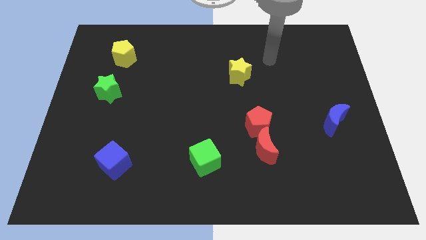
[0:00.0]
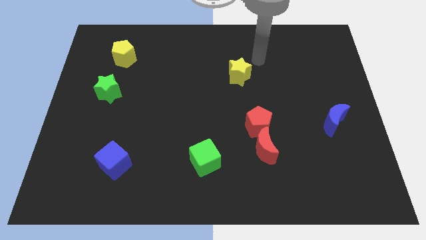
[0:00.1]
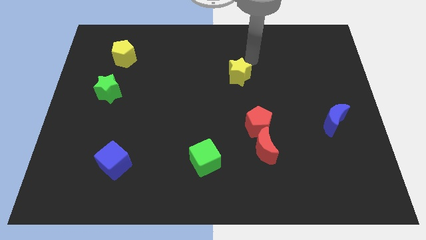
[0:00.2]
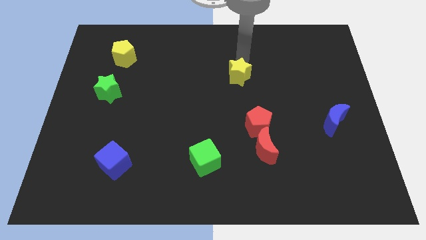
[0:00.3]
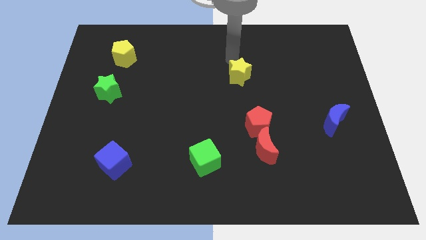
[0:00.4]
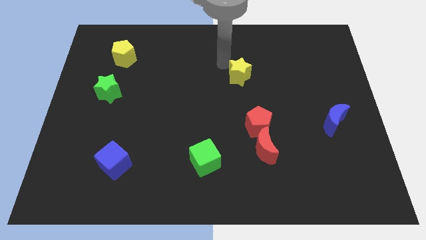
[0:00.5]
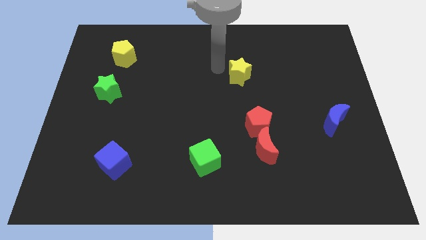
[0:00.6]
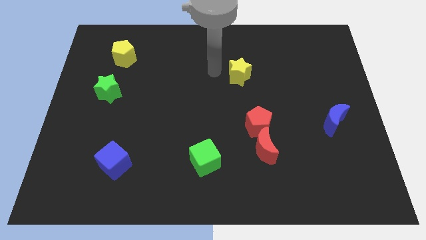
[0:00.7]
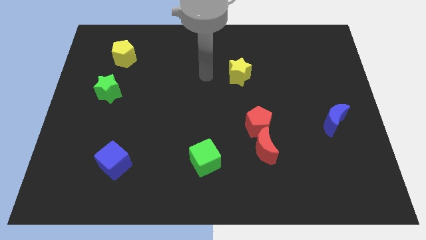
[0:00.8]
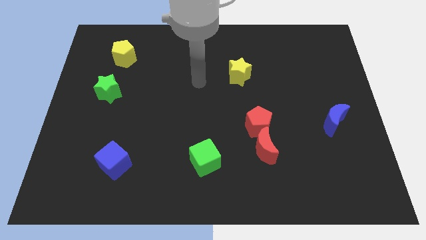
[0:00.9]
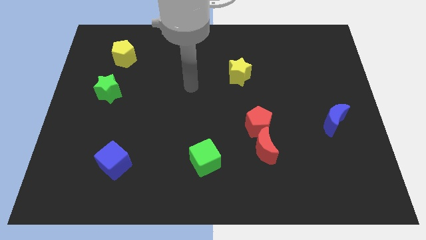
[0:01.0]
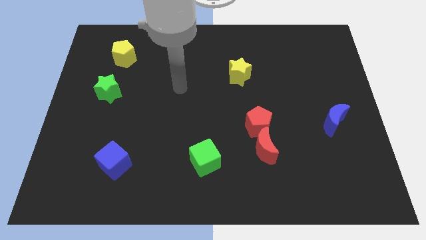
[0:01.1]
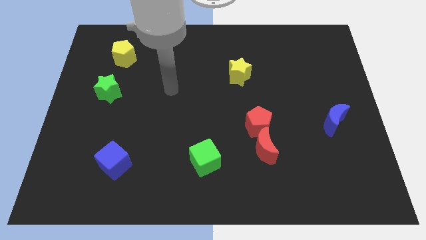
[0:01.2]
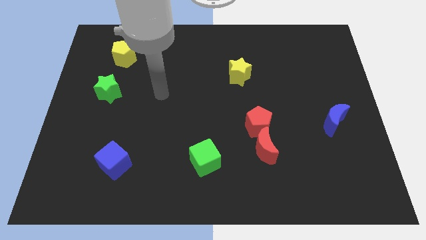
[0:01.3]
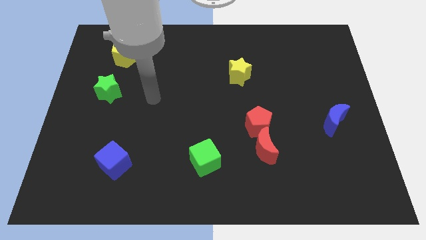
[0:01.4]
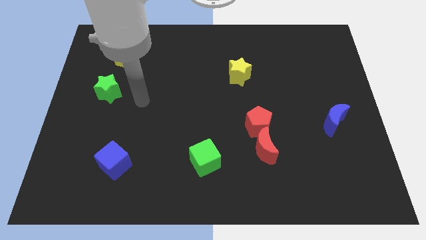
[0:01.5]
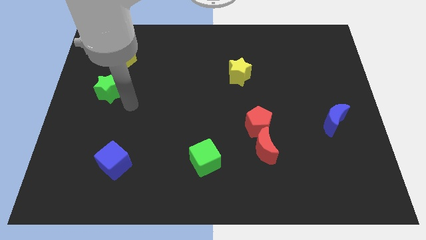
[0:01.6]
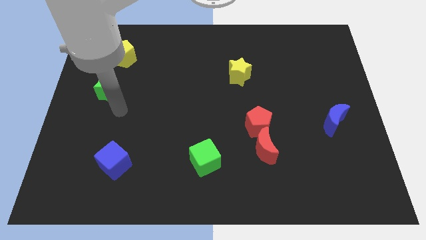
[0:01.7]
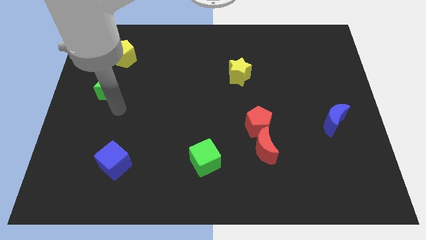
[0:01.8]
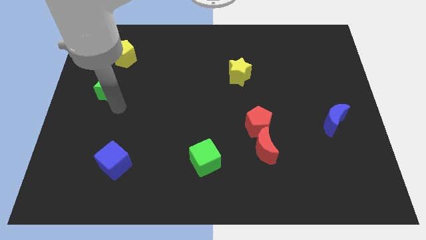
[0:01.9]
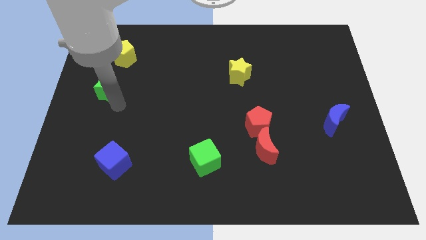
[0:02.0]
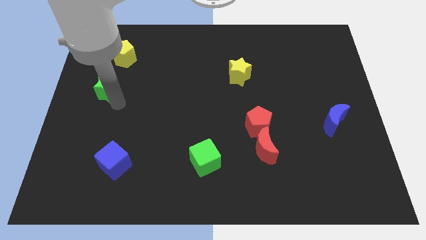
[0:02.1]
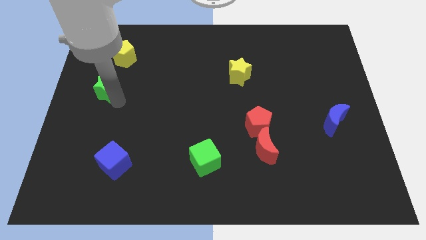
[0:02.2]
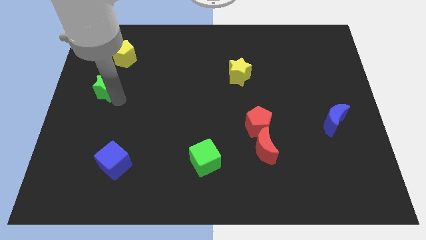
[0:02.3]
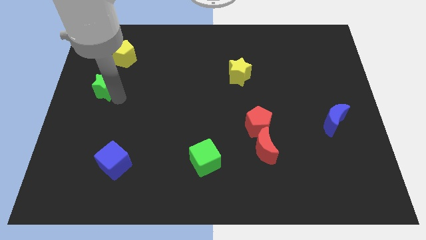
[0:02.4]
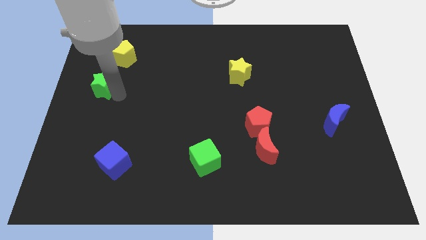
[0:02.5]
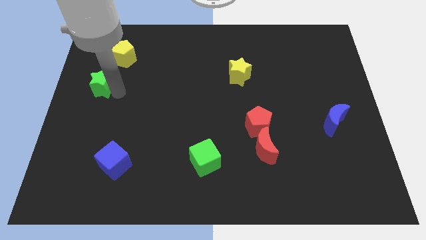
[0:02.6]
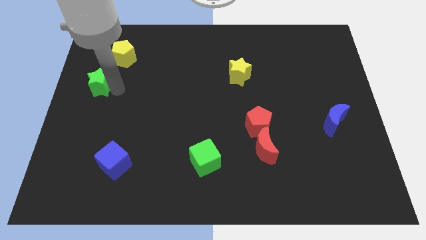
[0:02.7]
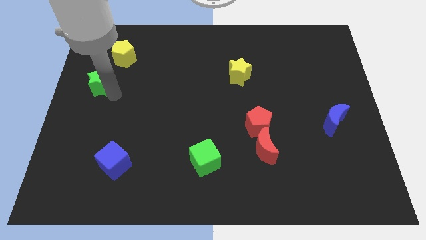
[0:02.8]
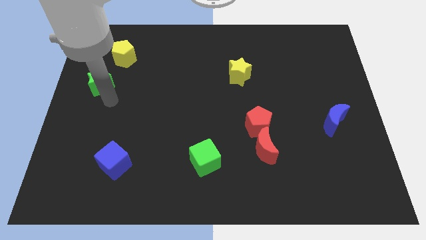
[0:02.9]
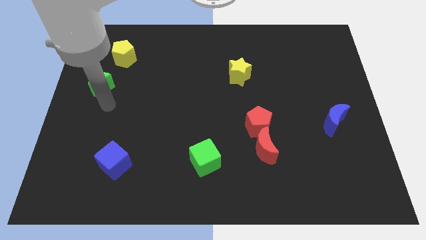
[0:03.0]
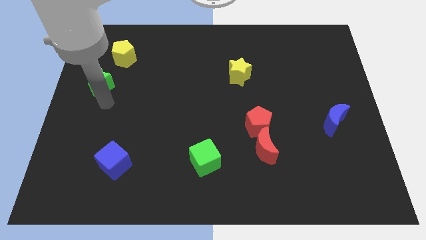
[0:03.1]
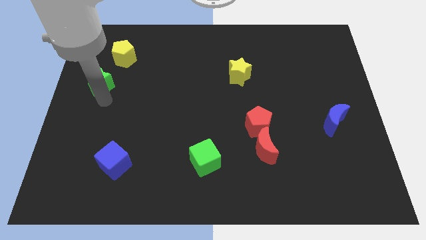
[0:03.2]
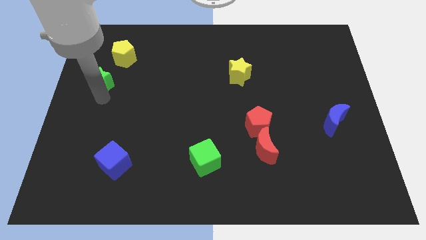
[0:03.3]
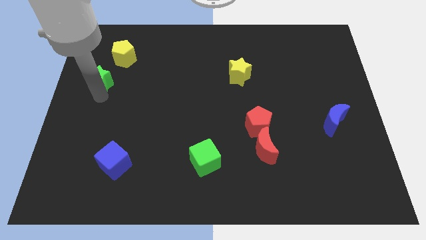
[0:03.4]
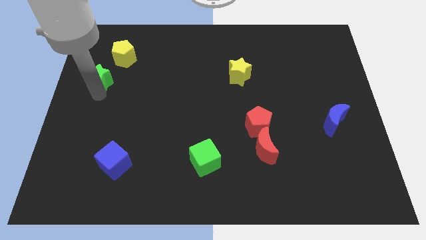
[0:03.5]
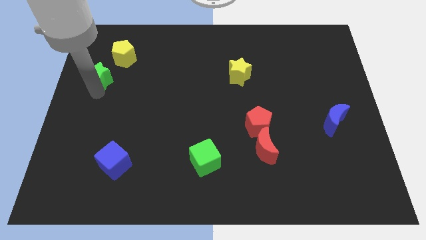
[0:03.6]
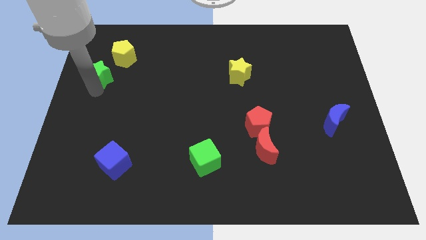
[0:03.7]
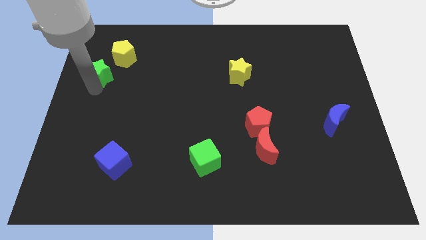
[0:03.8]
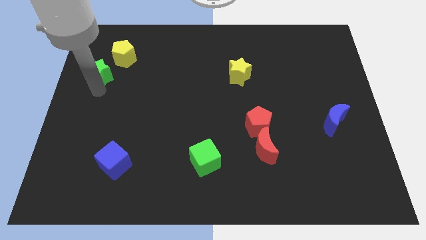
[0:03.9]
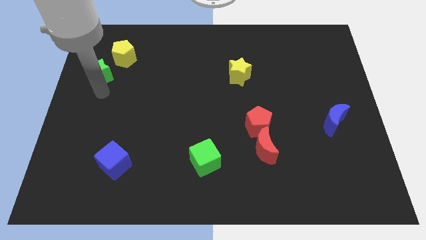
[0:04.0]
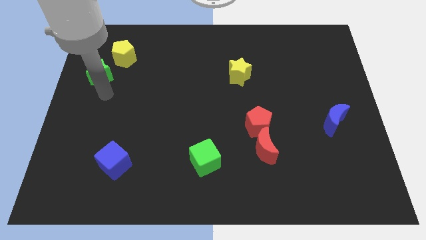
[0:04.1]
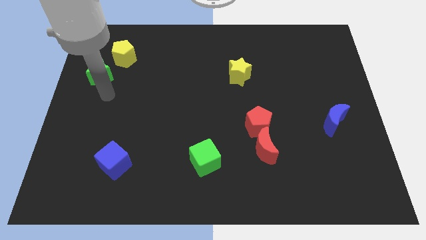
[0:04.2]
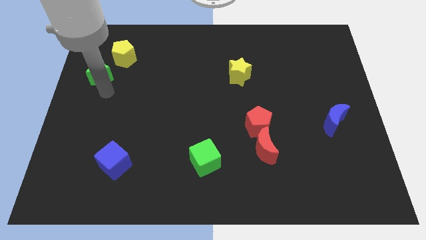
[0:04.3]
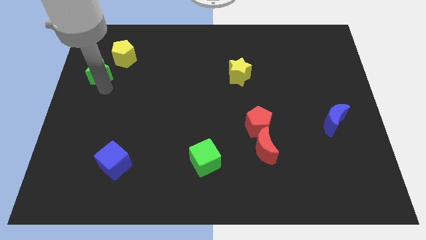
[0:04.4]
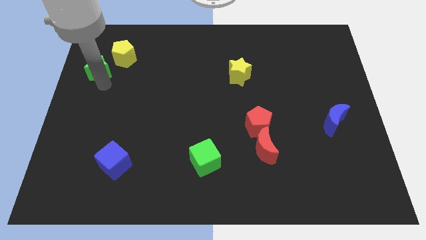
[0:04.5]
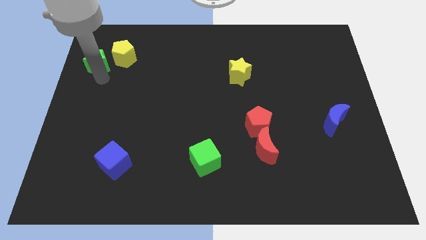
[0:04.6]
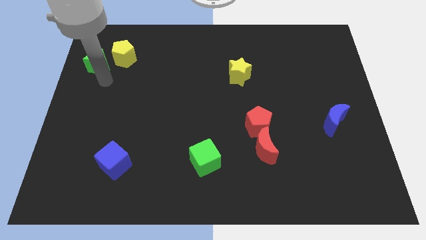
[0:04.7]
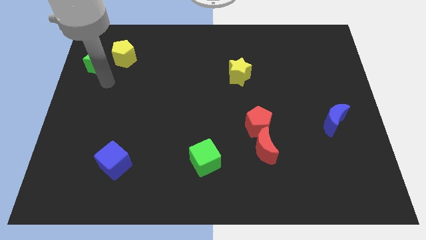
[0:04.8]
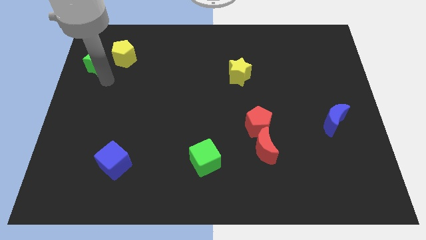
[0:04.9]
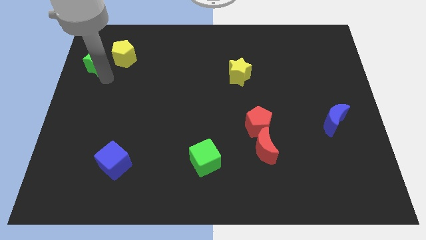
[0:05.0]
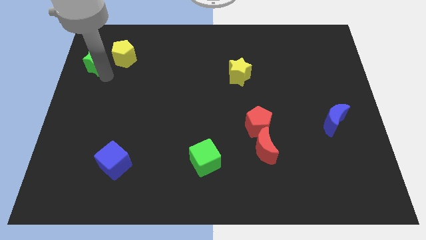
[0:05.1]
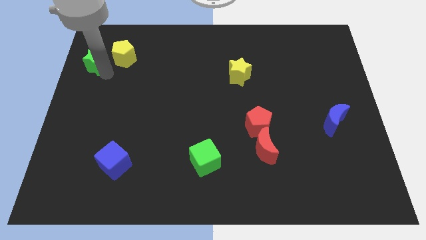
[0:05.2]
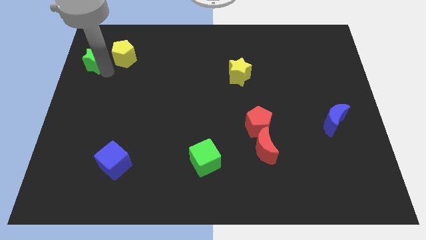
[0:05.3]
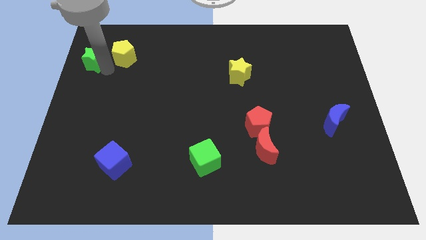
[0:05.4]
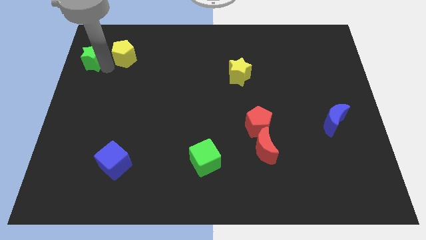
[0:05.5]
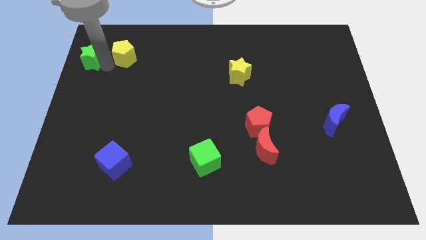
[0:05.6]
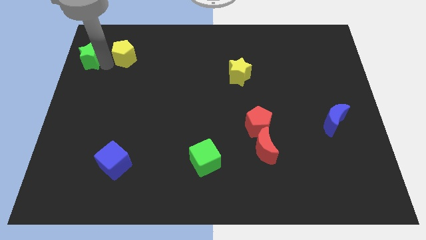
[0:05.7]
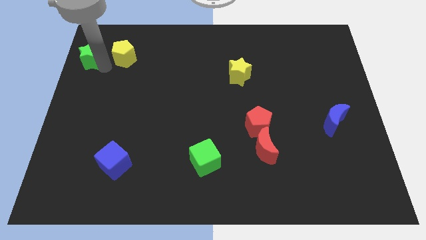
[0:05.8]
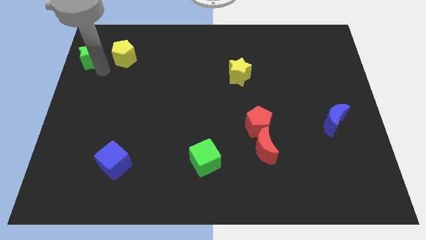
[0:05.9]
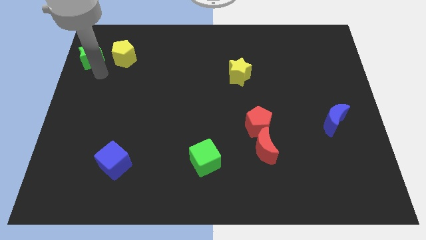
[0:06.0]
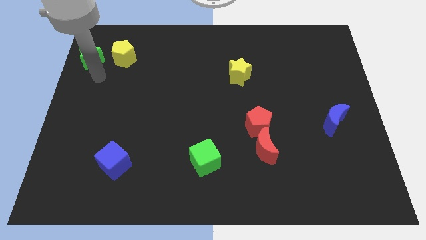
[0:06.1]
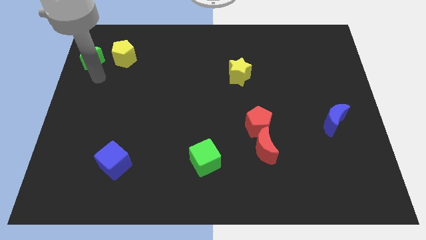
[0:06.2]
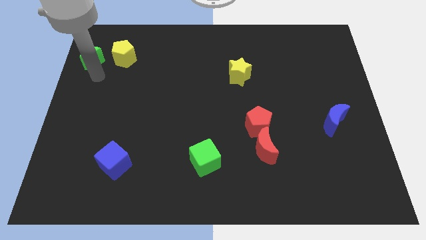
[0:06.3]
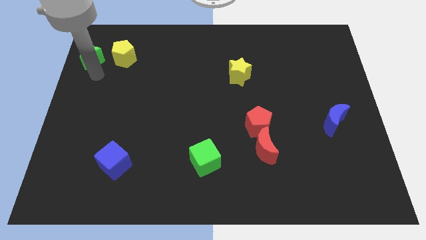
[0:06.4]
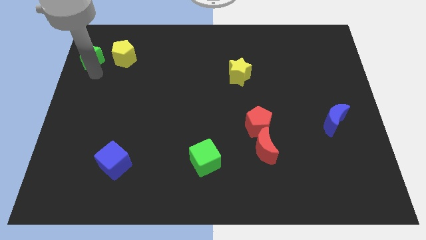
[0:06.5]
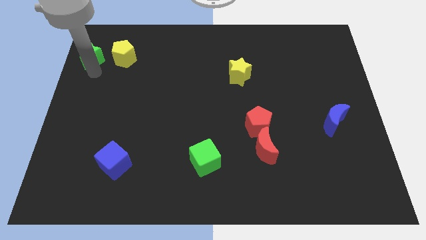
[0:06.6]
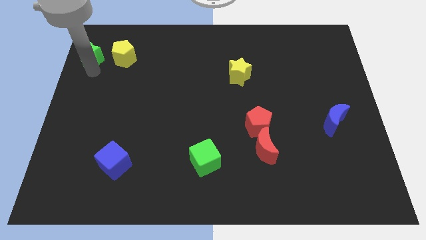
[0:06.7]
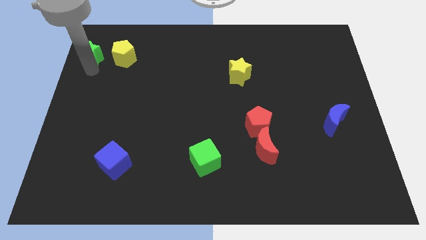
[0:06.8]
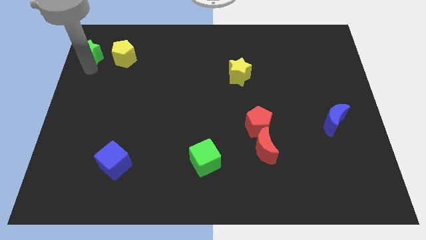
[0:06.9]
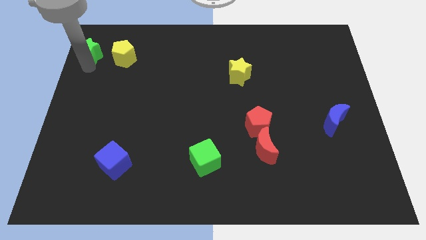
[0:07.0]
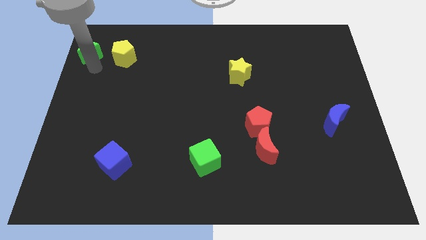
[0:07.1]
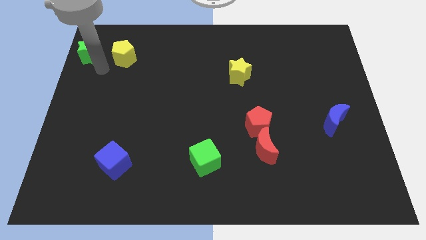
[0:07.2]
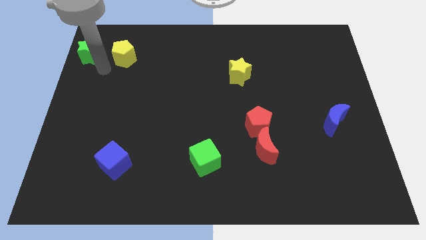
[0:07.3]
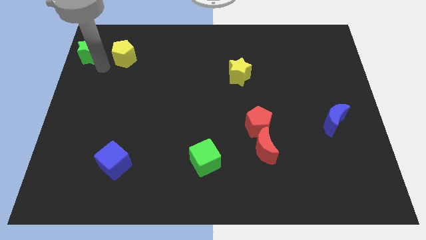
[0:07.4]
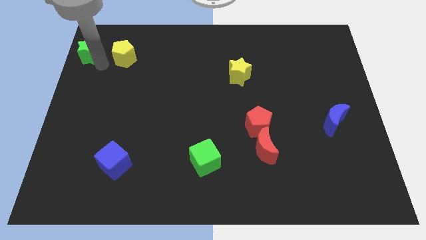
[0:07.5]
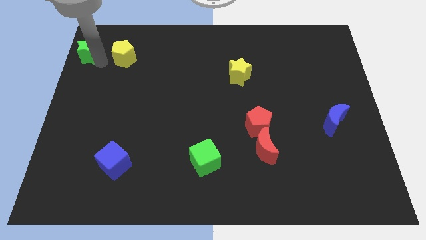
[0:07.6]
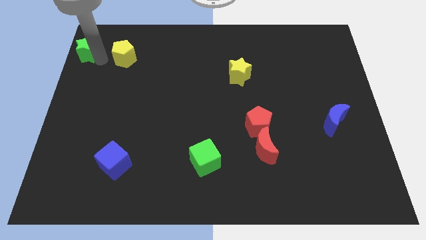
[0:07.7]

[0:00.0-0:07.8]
put the green star to the top left
